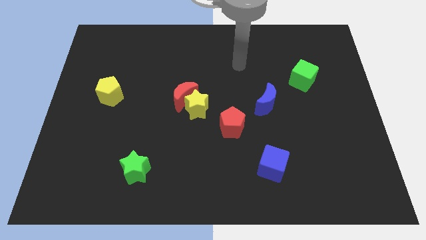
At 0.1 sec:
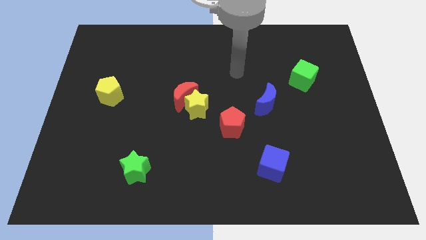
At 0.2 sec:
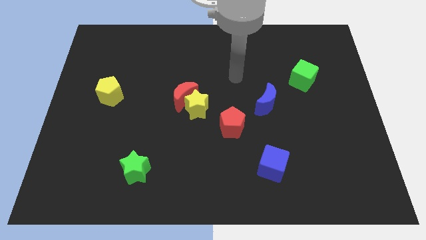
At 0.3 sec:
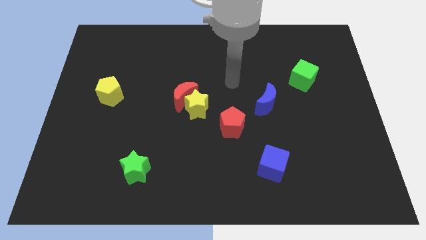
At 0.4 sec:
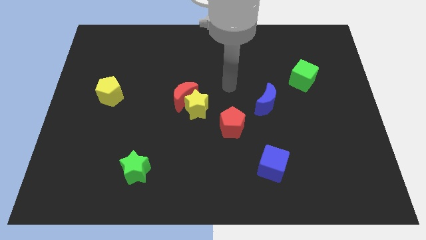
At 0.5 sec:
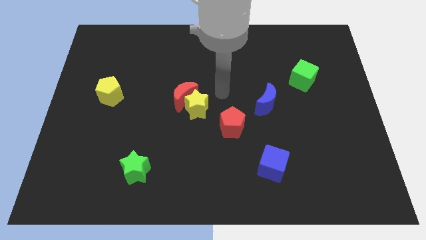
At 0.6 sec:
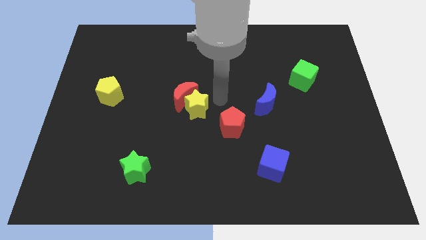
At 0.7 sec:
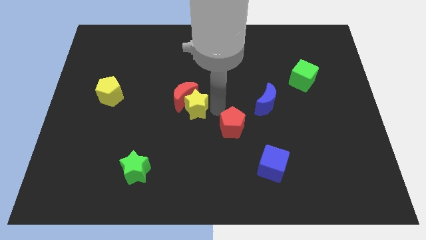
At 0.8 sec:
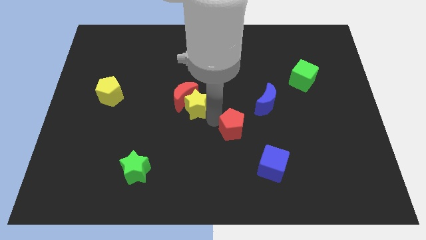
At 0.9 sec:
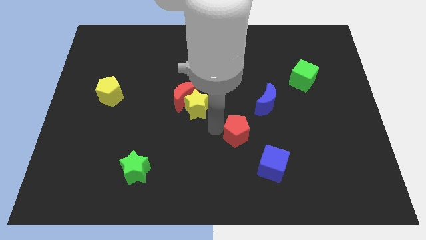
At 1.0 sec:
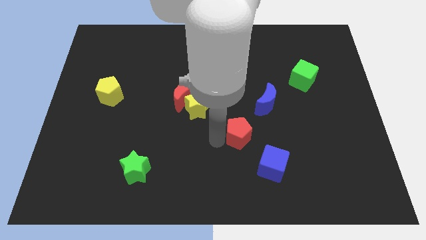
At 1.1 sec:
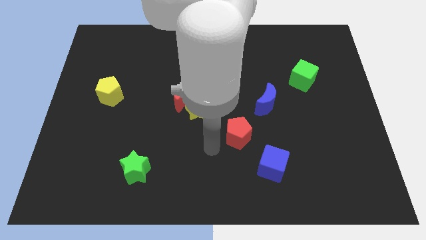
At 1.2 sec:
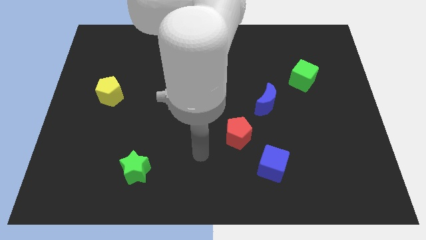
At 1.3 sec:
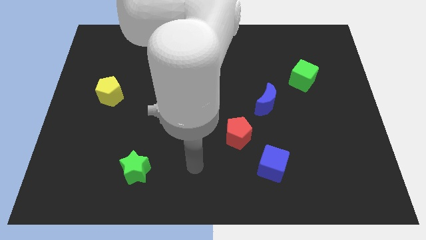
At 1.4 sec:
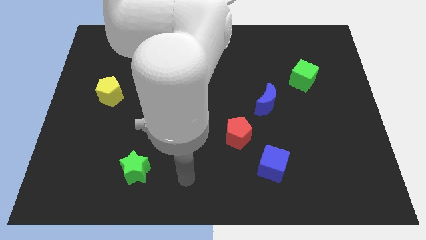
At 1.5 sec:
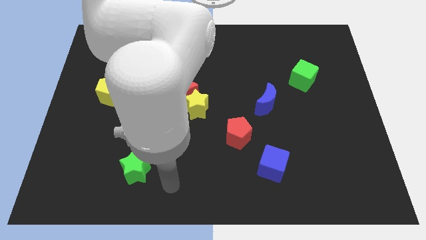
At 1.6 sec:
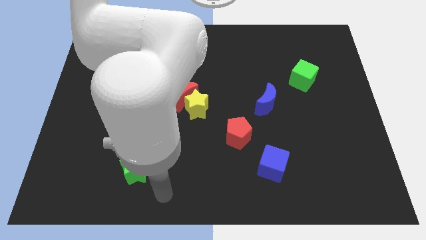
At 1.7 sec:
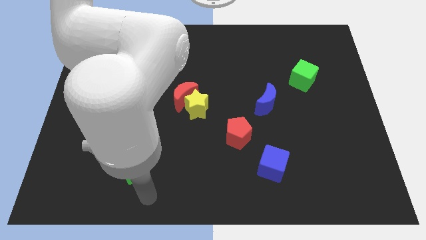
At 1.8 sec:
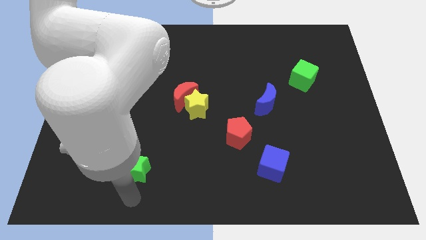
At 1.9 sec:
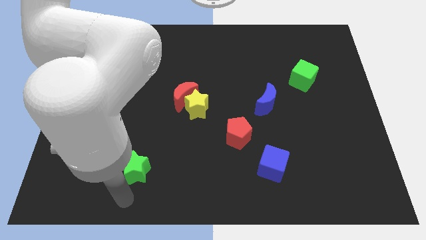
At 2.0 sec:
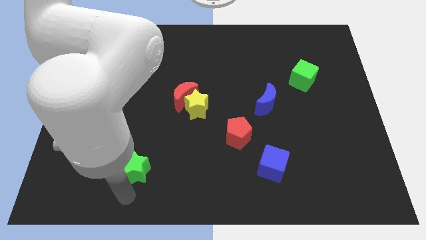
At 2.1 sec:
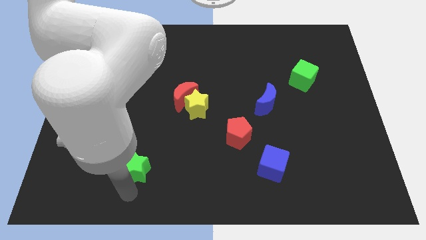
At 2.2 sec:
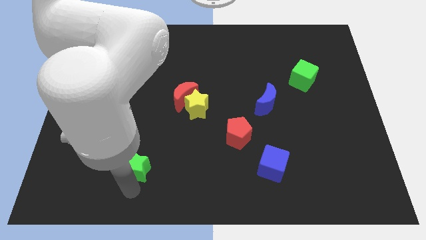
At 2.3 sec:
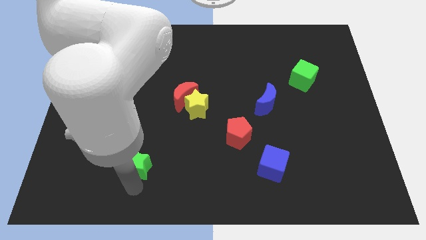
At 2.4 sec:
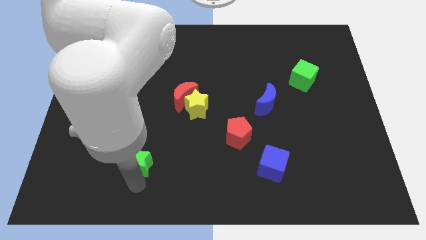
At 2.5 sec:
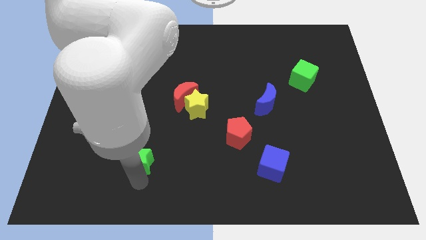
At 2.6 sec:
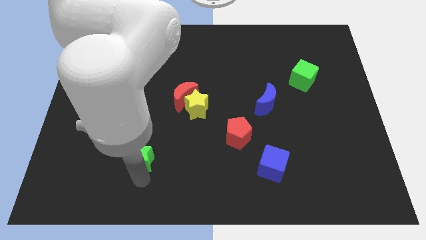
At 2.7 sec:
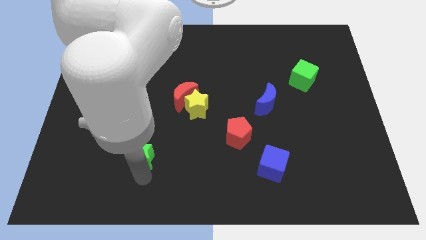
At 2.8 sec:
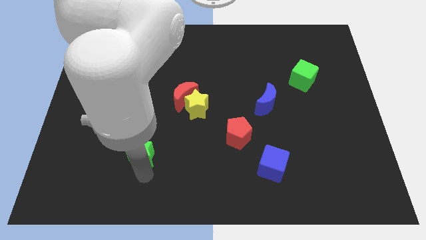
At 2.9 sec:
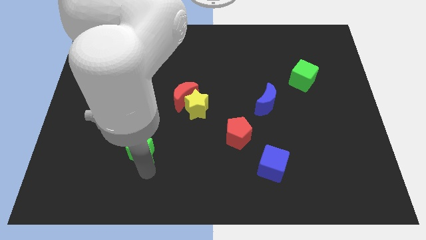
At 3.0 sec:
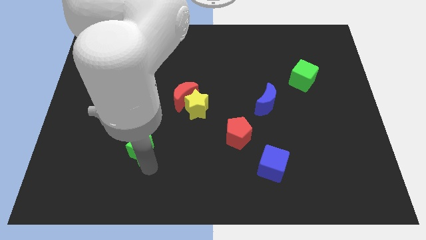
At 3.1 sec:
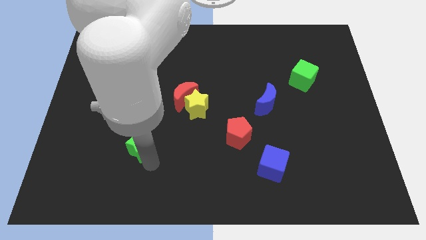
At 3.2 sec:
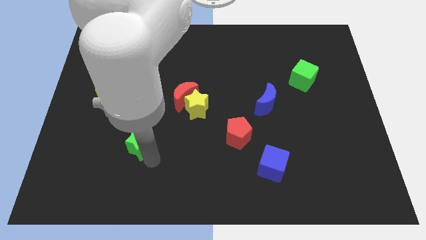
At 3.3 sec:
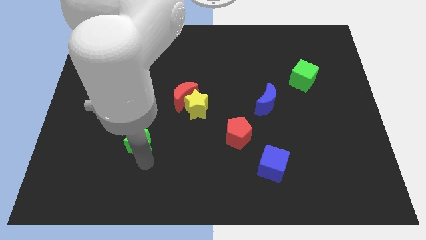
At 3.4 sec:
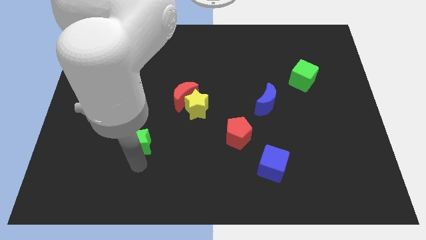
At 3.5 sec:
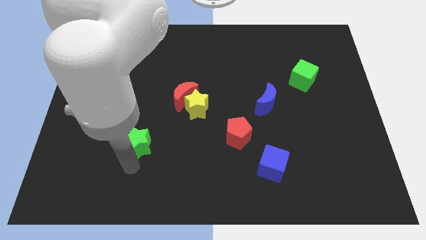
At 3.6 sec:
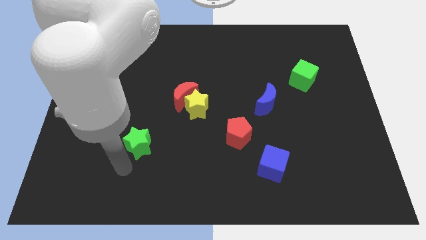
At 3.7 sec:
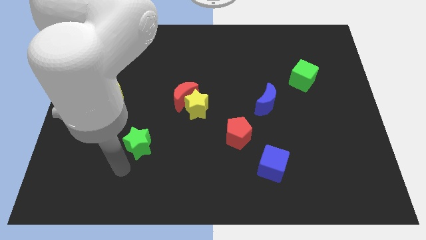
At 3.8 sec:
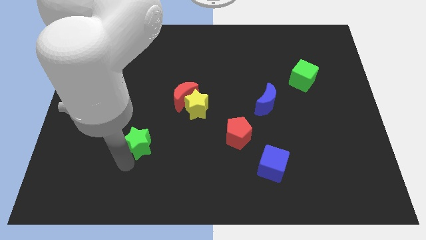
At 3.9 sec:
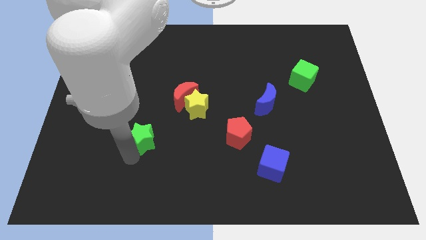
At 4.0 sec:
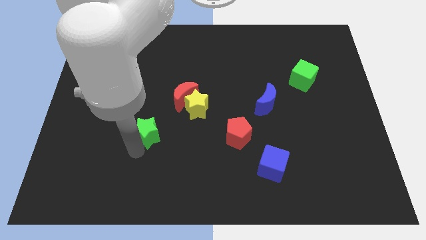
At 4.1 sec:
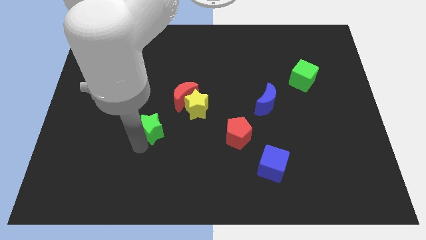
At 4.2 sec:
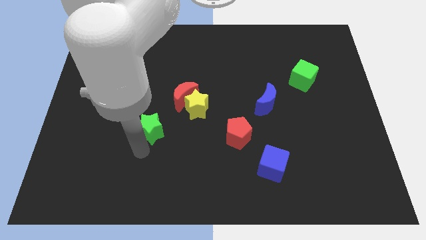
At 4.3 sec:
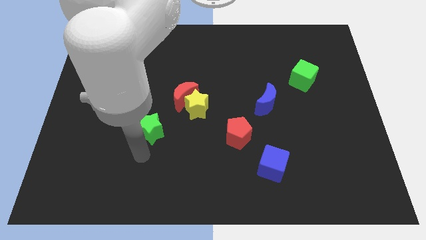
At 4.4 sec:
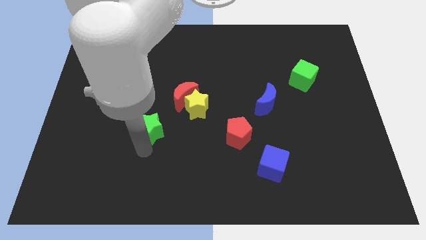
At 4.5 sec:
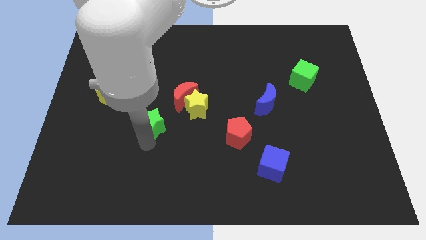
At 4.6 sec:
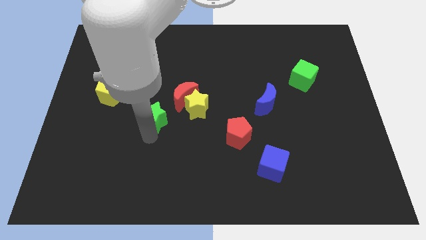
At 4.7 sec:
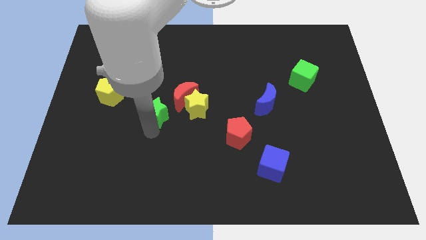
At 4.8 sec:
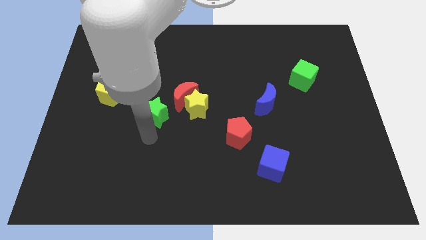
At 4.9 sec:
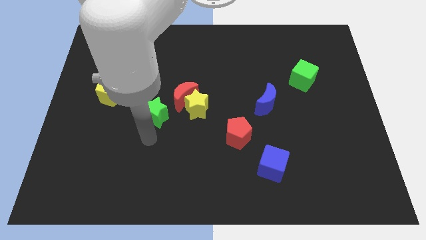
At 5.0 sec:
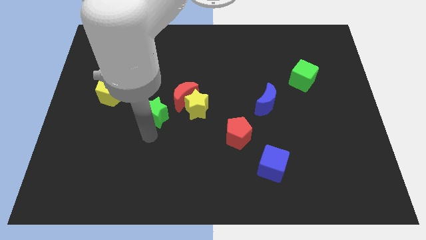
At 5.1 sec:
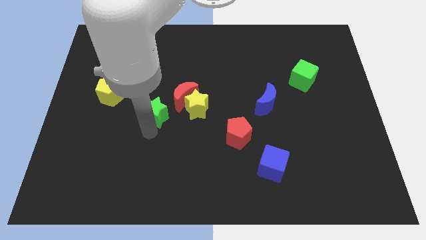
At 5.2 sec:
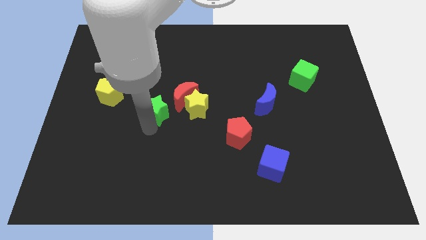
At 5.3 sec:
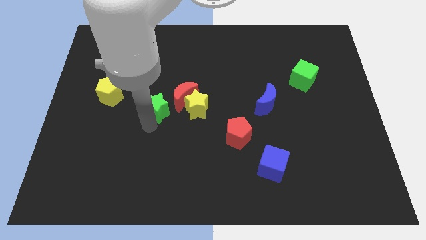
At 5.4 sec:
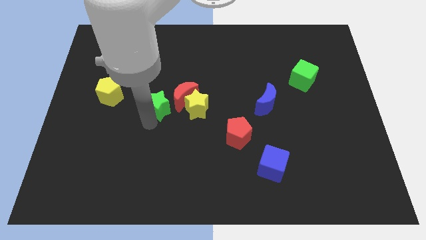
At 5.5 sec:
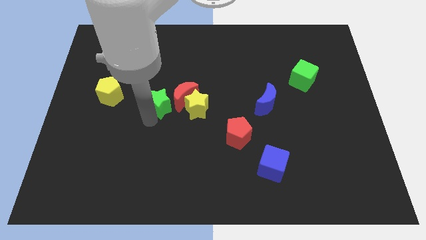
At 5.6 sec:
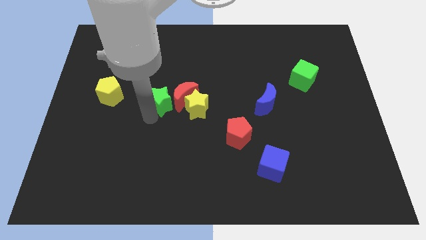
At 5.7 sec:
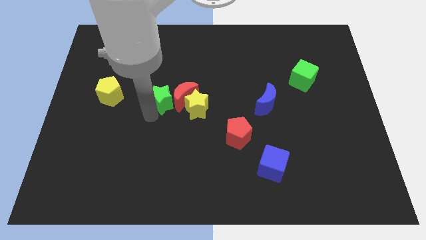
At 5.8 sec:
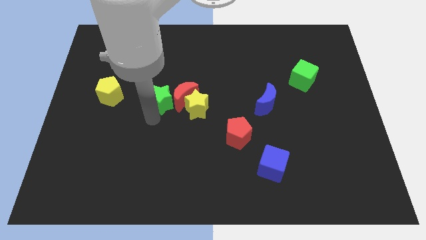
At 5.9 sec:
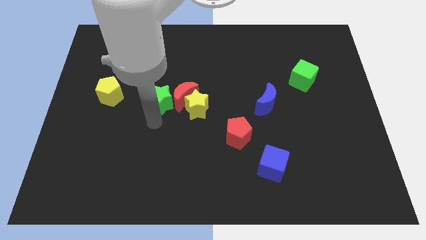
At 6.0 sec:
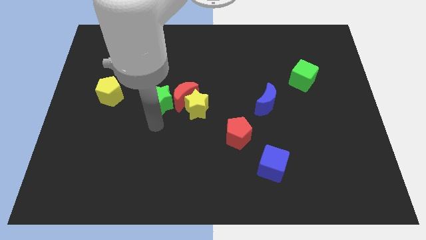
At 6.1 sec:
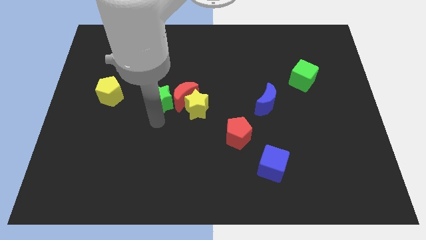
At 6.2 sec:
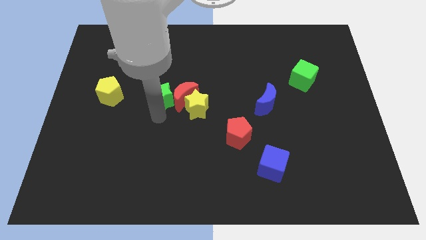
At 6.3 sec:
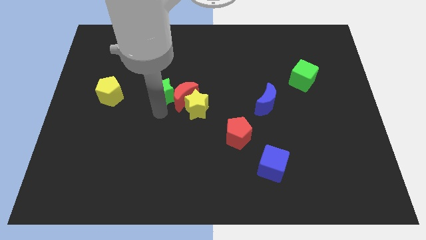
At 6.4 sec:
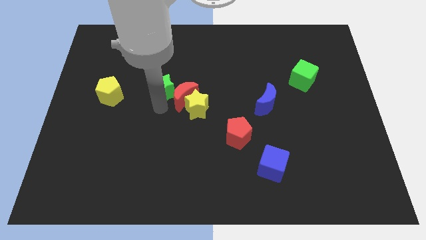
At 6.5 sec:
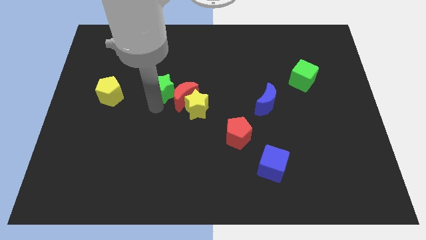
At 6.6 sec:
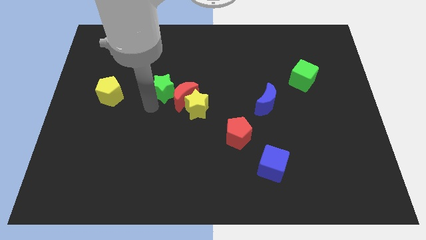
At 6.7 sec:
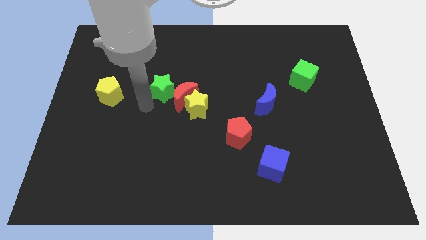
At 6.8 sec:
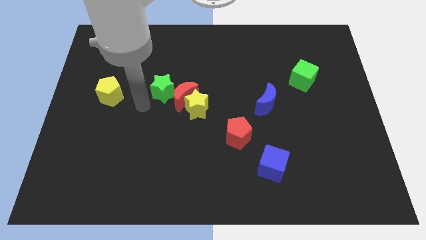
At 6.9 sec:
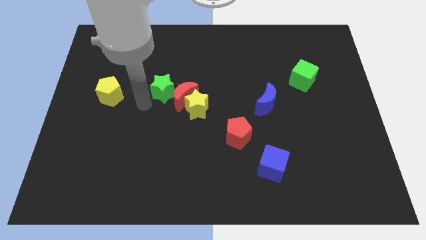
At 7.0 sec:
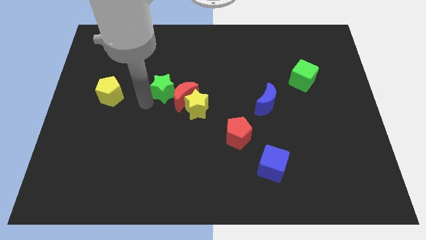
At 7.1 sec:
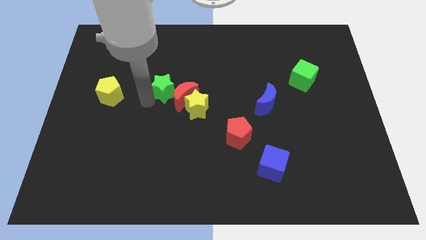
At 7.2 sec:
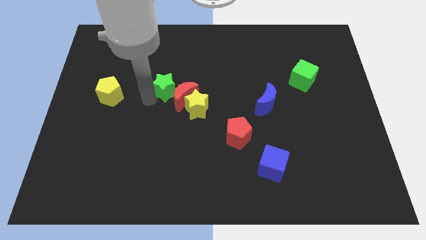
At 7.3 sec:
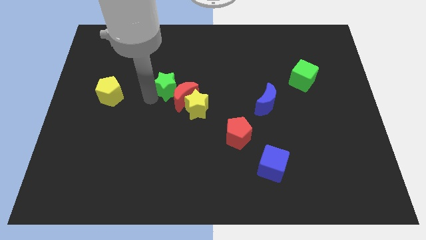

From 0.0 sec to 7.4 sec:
push the green star to the top side of the red moon
